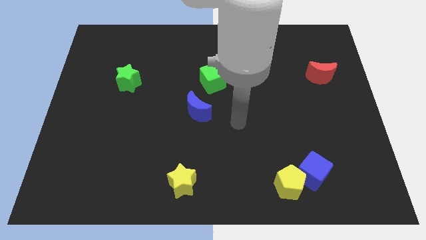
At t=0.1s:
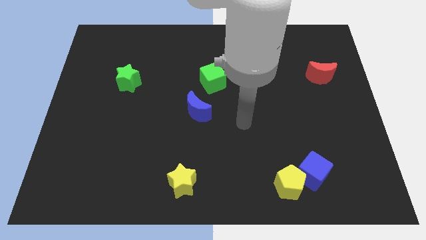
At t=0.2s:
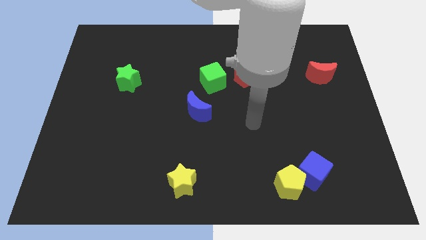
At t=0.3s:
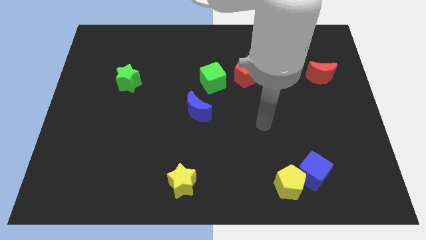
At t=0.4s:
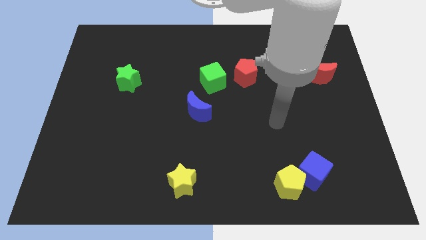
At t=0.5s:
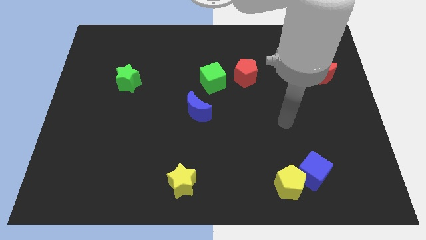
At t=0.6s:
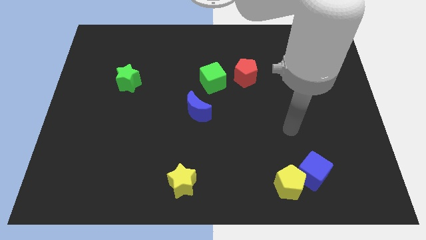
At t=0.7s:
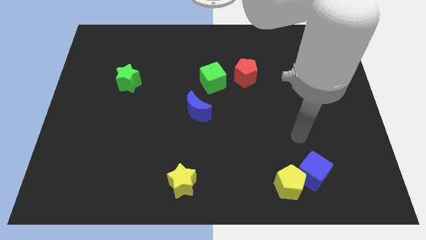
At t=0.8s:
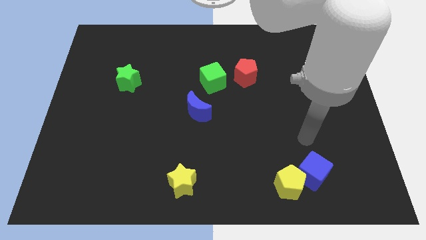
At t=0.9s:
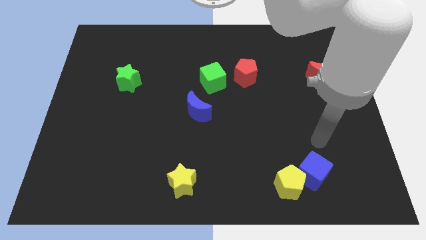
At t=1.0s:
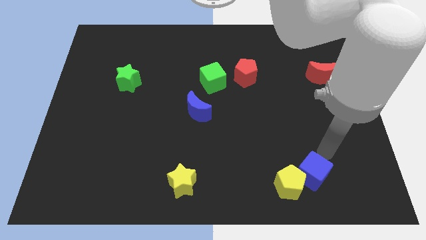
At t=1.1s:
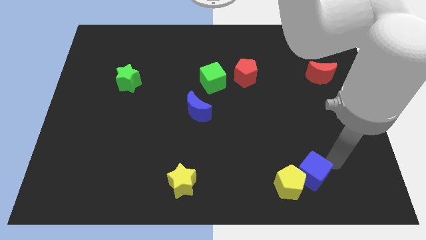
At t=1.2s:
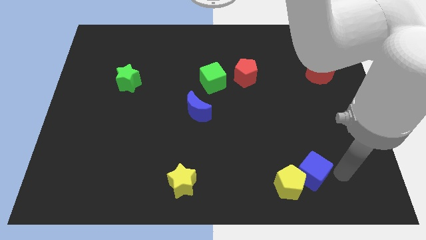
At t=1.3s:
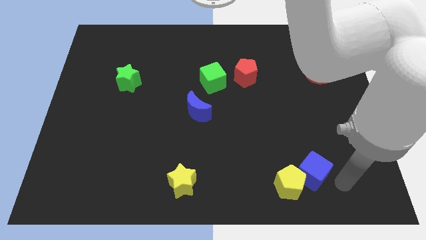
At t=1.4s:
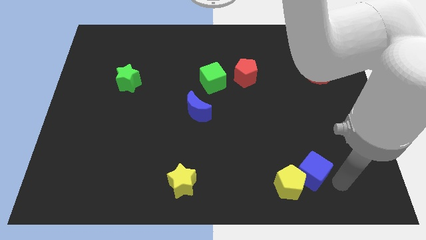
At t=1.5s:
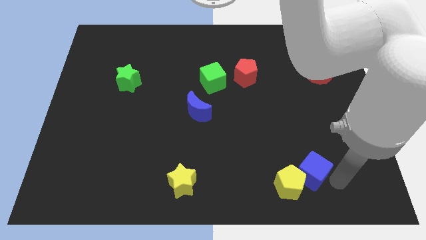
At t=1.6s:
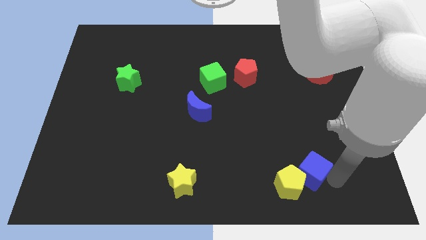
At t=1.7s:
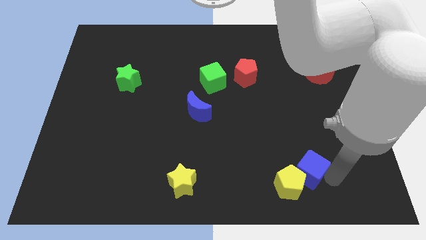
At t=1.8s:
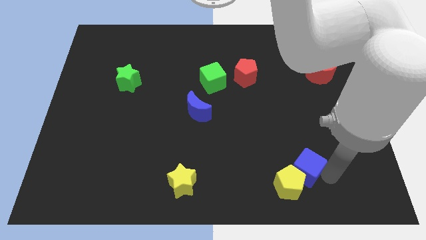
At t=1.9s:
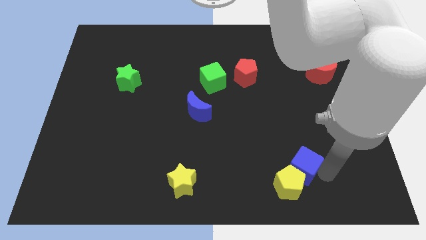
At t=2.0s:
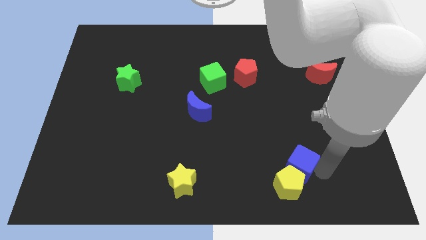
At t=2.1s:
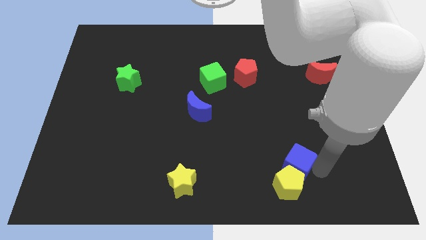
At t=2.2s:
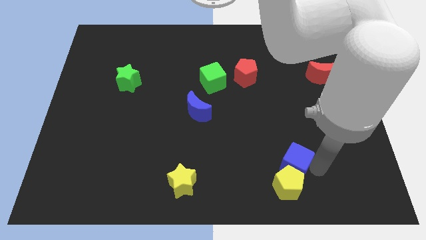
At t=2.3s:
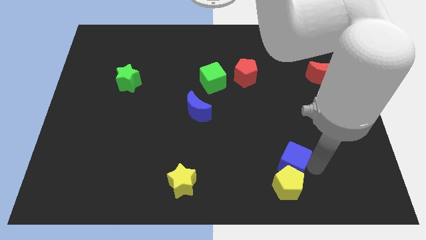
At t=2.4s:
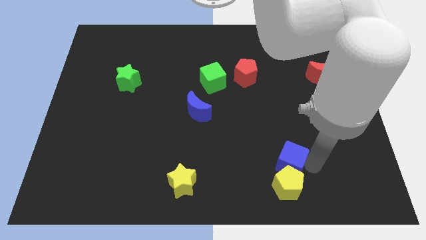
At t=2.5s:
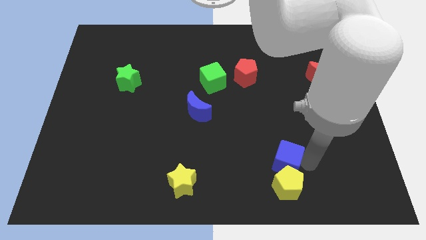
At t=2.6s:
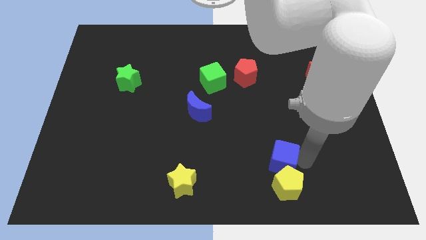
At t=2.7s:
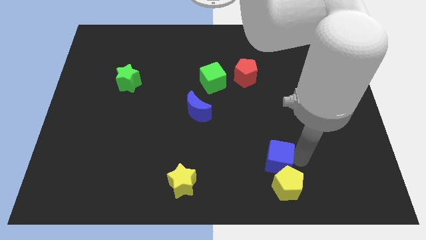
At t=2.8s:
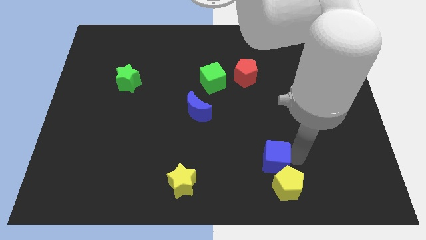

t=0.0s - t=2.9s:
slightly move the blue cube to the left

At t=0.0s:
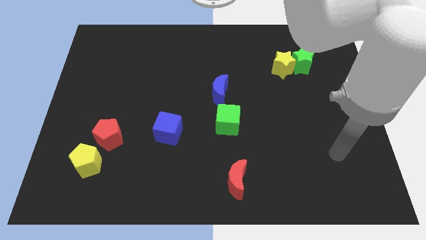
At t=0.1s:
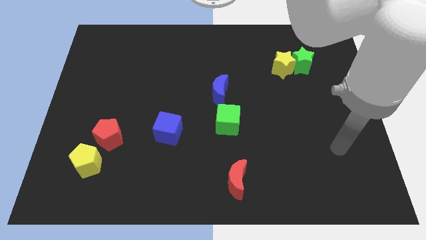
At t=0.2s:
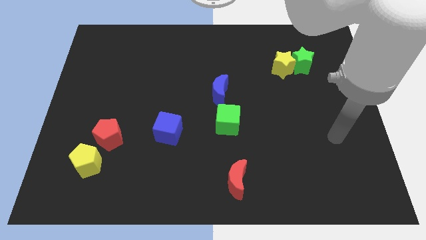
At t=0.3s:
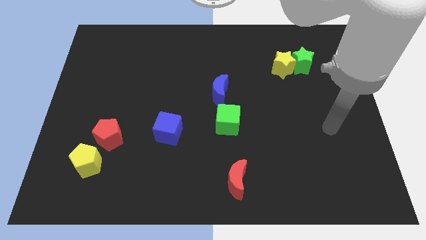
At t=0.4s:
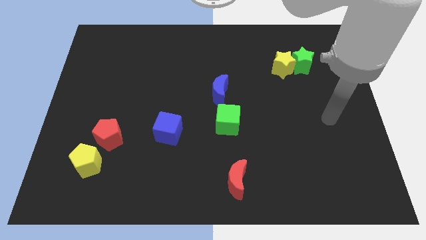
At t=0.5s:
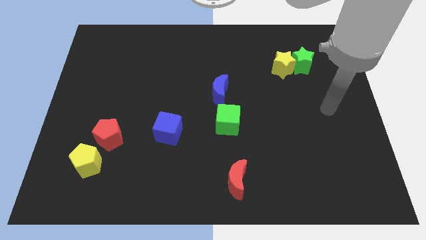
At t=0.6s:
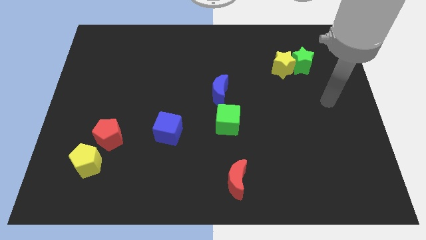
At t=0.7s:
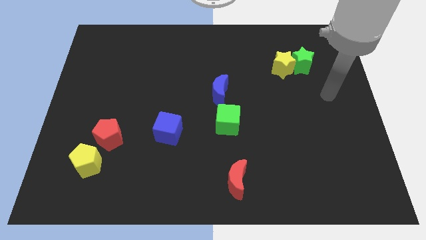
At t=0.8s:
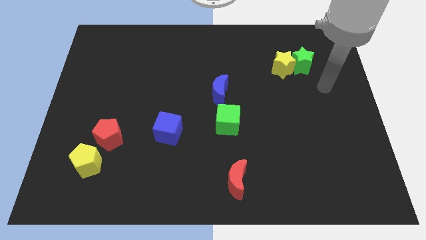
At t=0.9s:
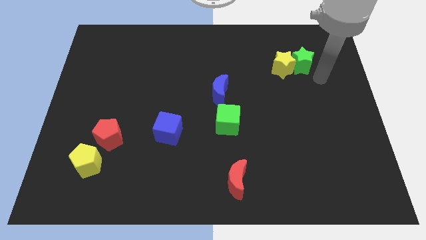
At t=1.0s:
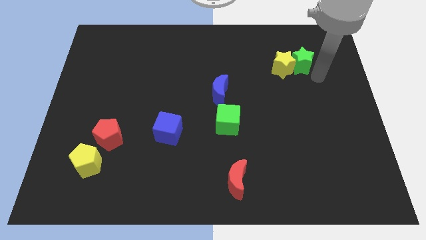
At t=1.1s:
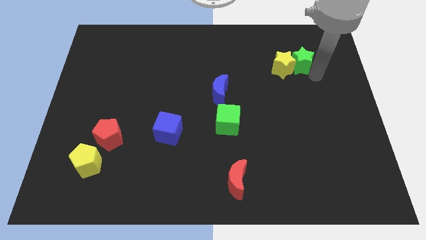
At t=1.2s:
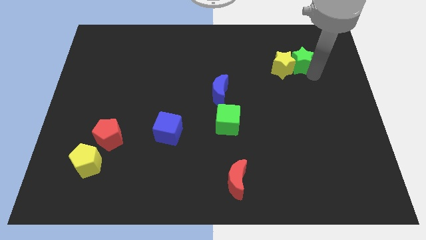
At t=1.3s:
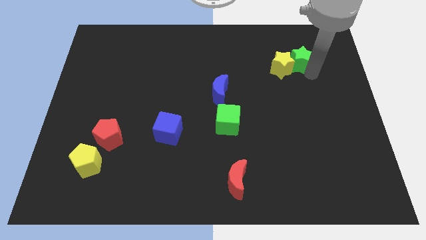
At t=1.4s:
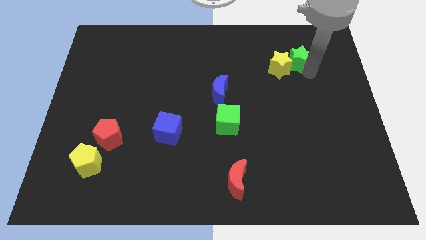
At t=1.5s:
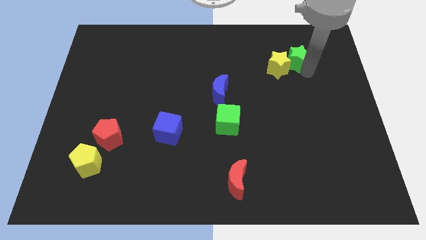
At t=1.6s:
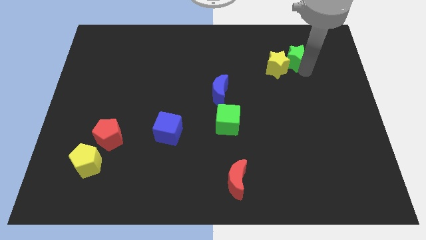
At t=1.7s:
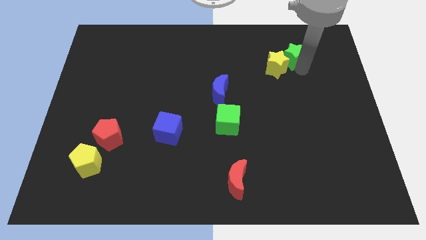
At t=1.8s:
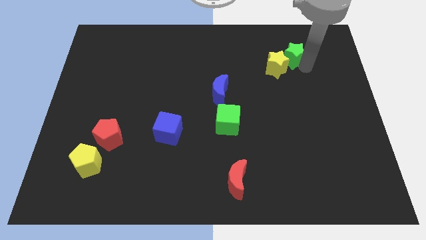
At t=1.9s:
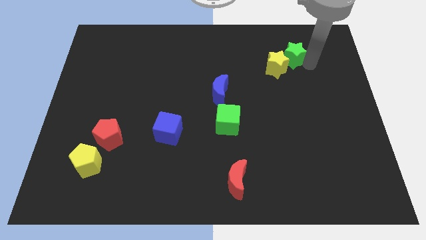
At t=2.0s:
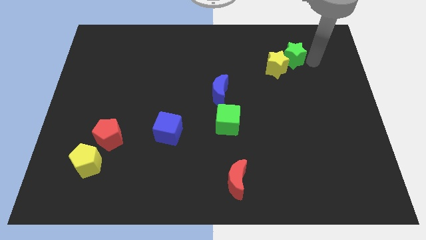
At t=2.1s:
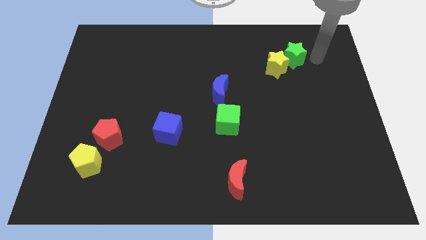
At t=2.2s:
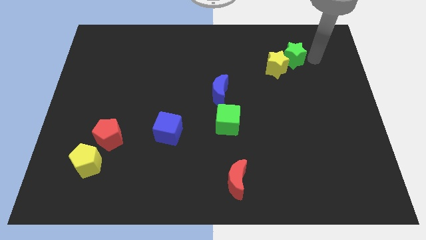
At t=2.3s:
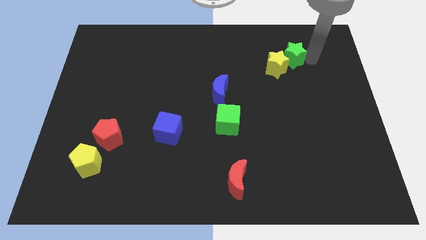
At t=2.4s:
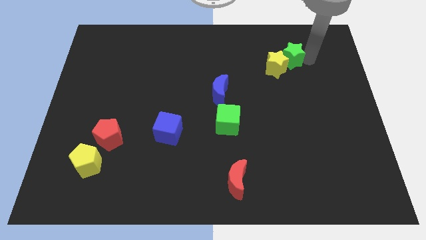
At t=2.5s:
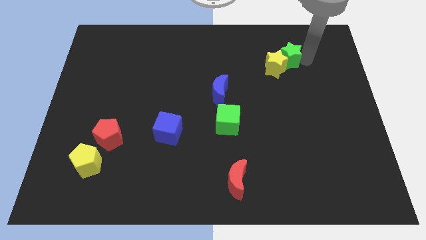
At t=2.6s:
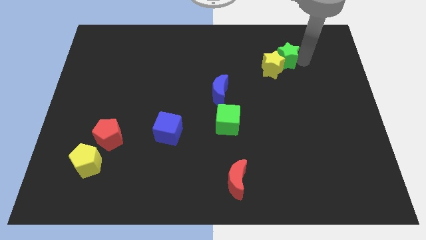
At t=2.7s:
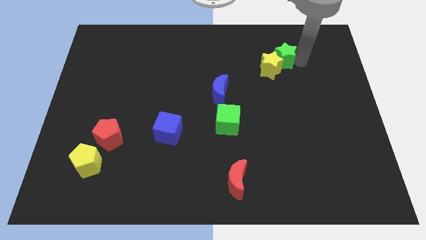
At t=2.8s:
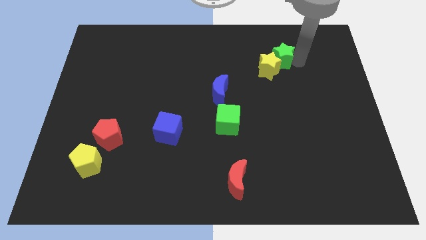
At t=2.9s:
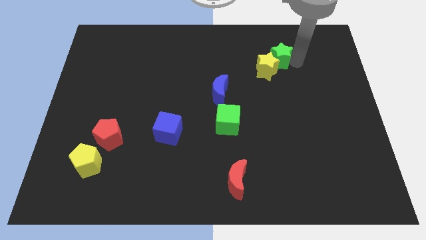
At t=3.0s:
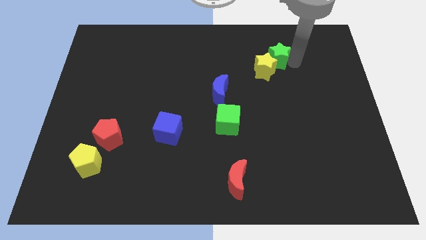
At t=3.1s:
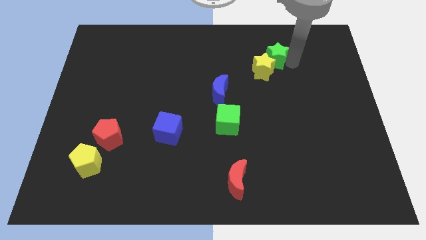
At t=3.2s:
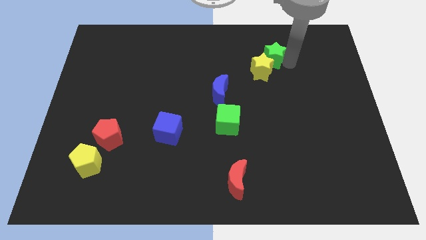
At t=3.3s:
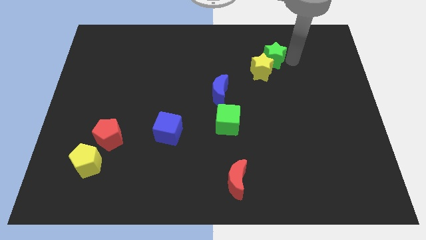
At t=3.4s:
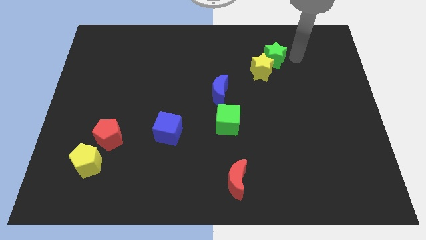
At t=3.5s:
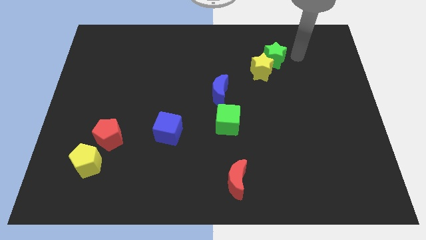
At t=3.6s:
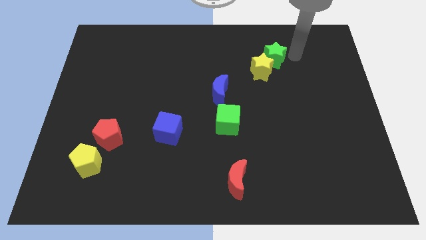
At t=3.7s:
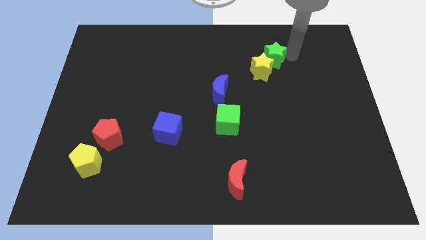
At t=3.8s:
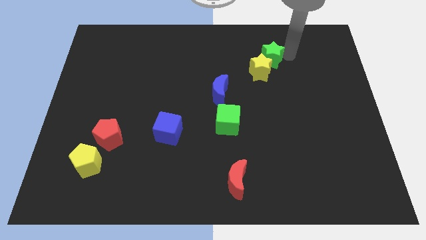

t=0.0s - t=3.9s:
push the green star to the left a little bit

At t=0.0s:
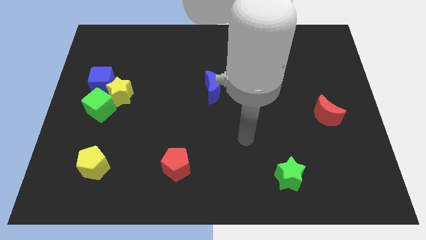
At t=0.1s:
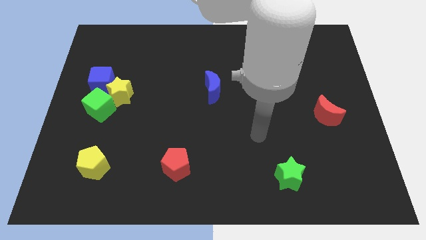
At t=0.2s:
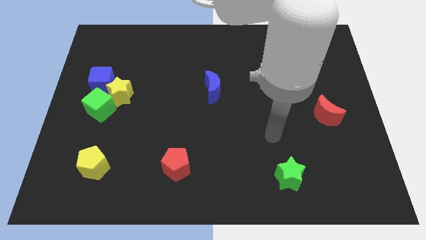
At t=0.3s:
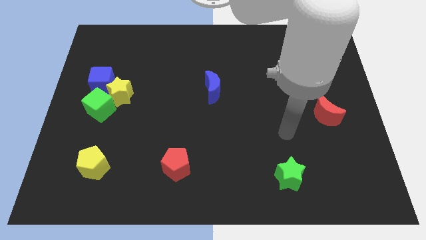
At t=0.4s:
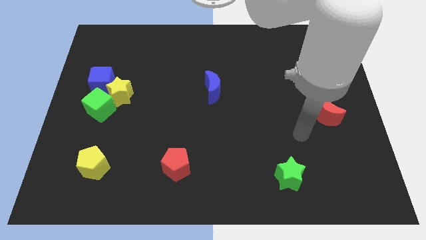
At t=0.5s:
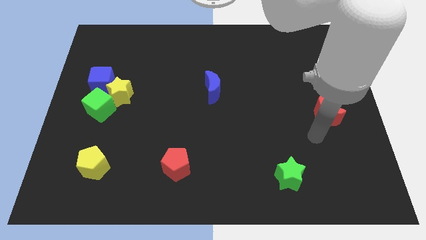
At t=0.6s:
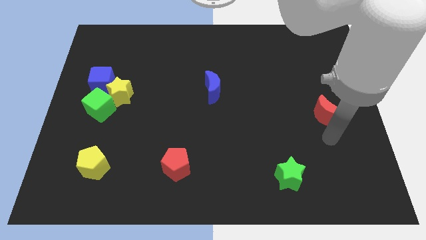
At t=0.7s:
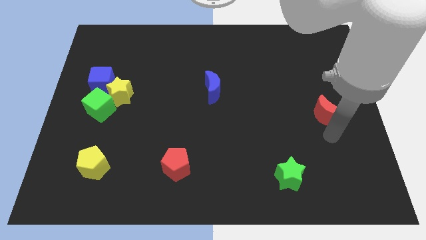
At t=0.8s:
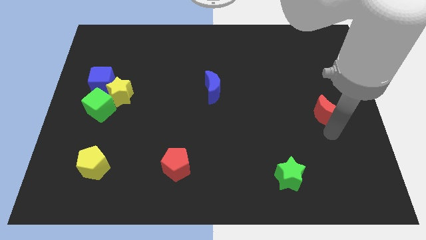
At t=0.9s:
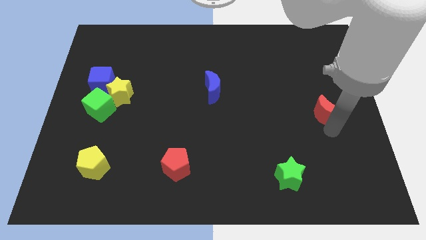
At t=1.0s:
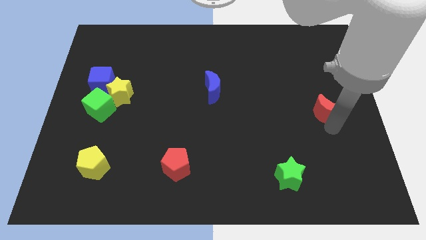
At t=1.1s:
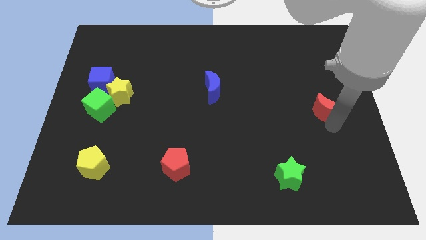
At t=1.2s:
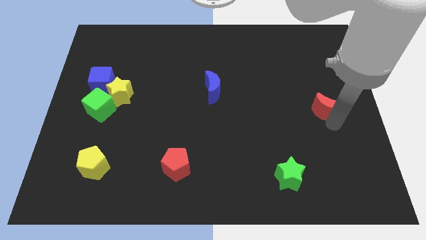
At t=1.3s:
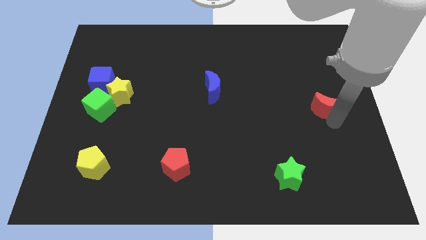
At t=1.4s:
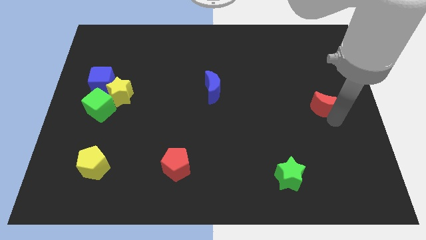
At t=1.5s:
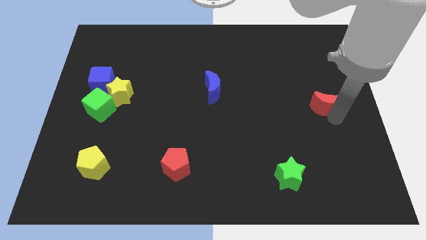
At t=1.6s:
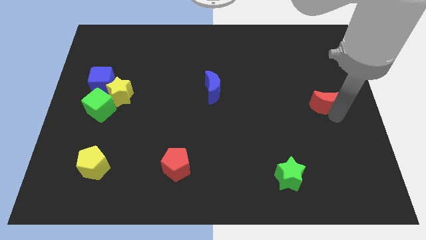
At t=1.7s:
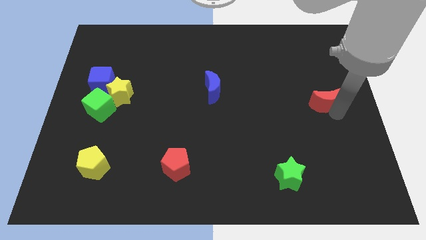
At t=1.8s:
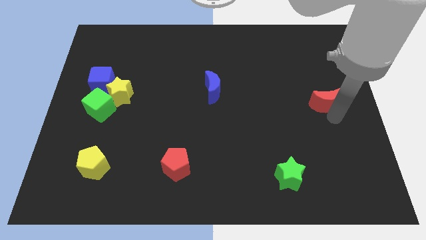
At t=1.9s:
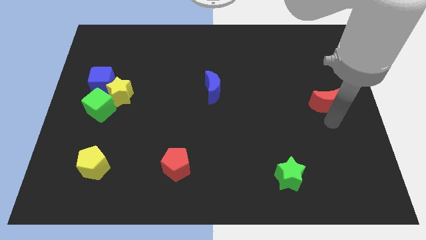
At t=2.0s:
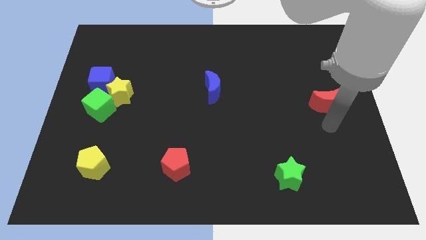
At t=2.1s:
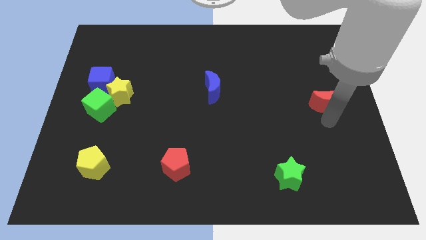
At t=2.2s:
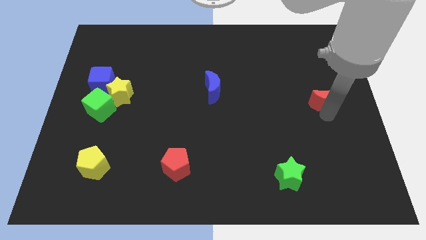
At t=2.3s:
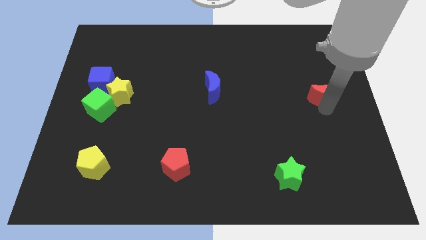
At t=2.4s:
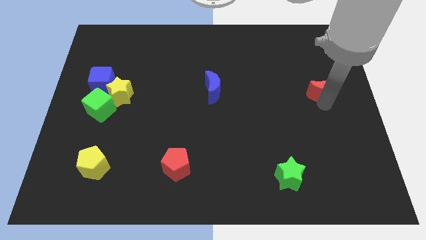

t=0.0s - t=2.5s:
slightly move the red moon up
